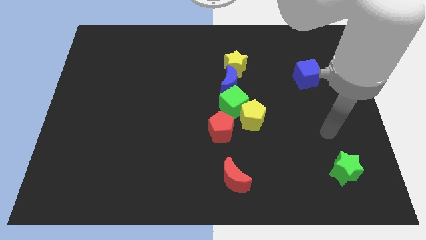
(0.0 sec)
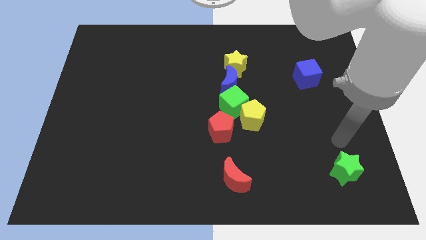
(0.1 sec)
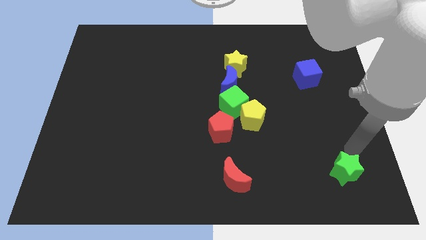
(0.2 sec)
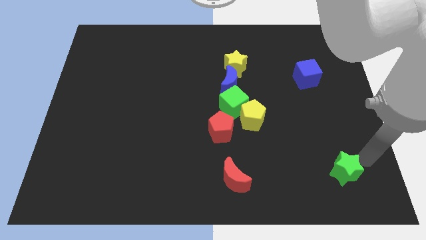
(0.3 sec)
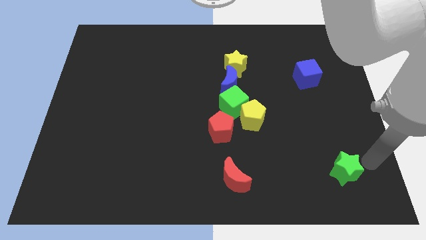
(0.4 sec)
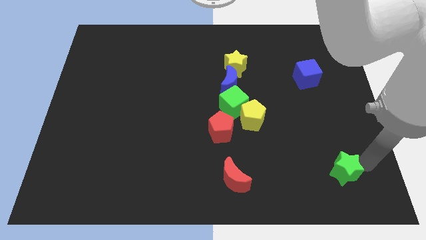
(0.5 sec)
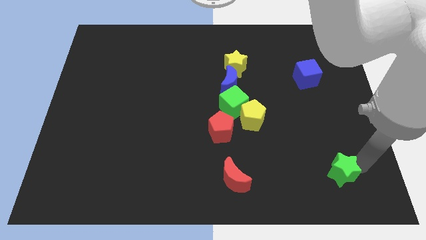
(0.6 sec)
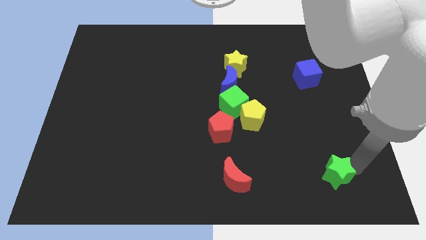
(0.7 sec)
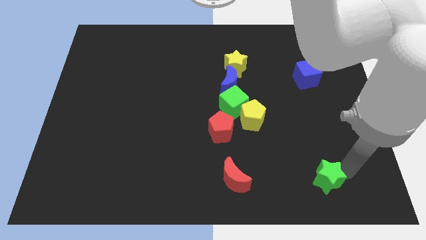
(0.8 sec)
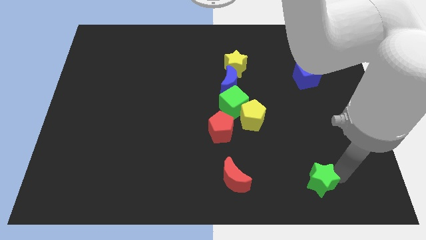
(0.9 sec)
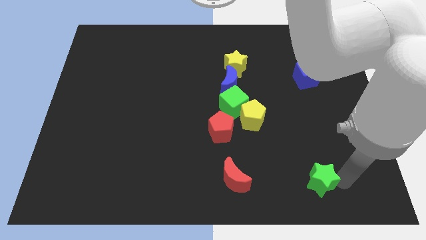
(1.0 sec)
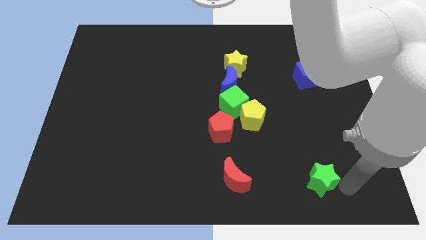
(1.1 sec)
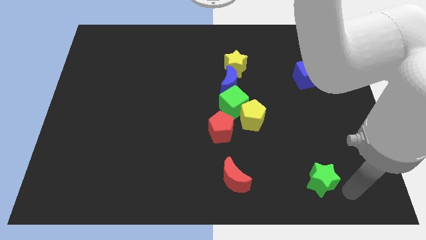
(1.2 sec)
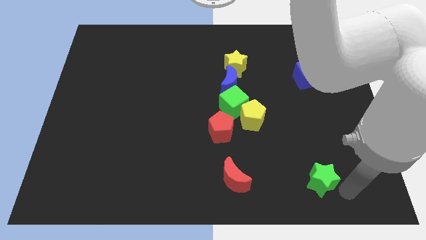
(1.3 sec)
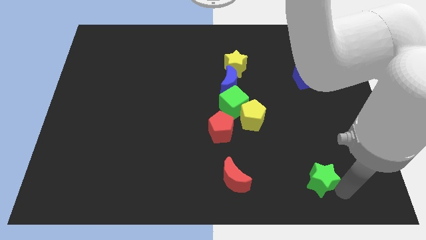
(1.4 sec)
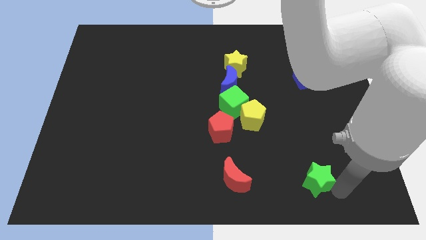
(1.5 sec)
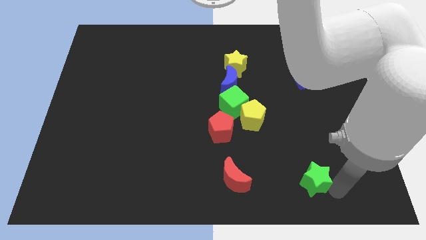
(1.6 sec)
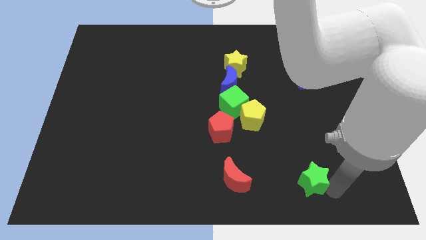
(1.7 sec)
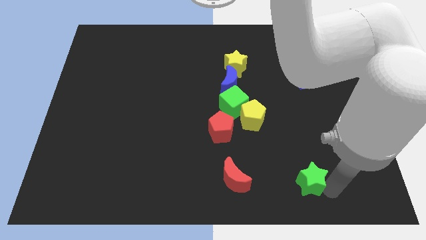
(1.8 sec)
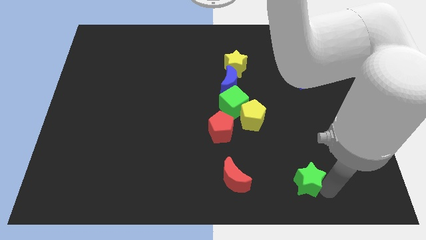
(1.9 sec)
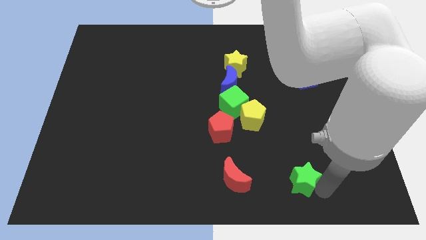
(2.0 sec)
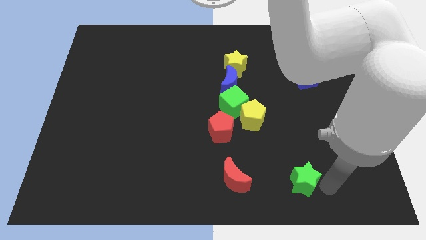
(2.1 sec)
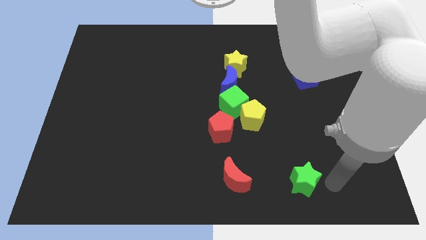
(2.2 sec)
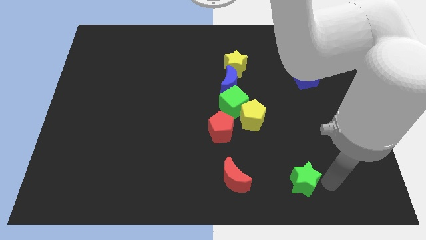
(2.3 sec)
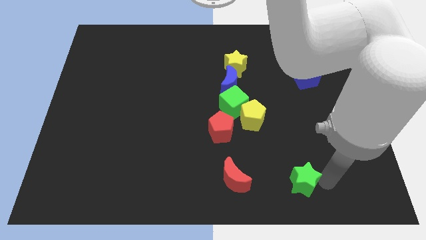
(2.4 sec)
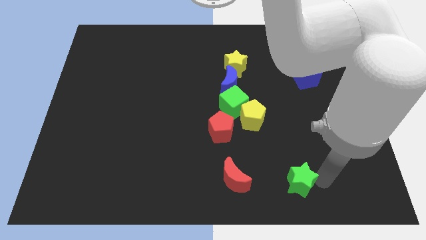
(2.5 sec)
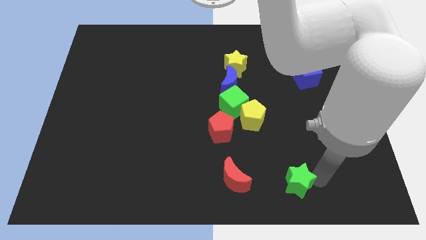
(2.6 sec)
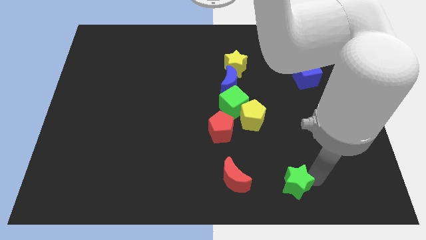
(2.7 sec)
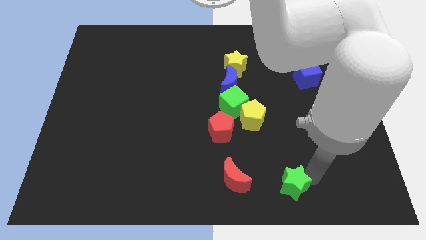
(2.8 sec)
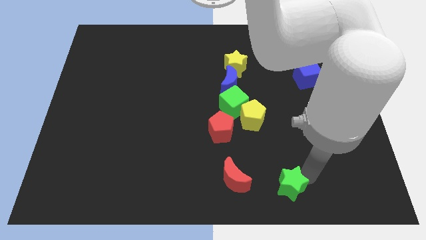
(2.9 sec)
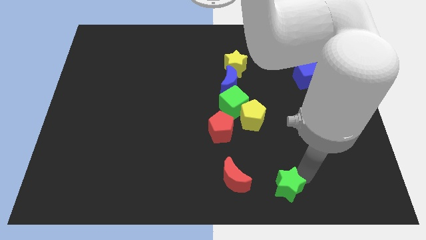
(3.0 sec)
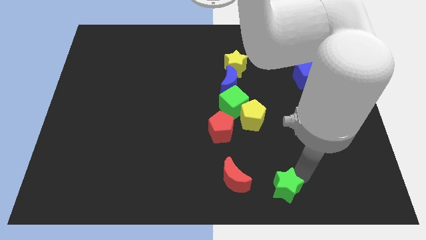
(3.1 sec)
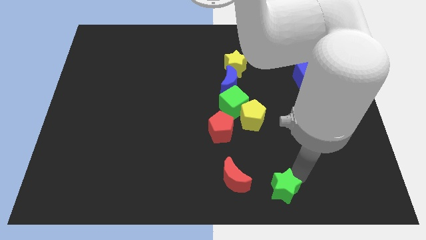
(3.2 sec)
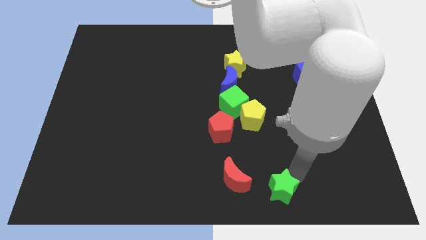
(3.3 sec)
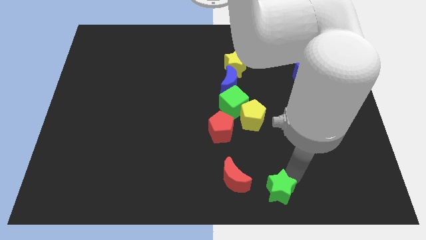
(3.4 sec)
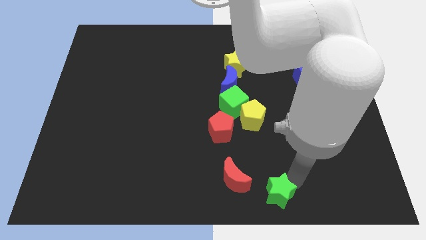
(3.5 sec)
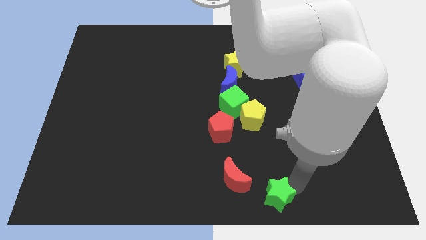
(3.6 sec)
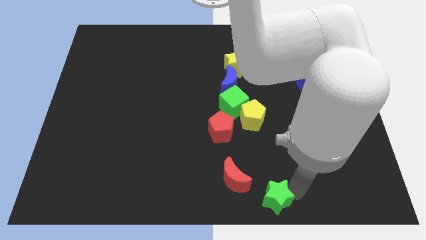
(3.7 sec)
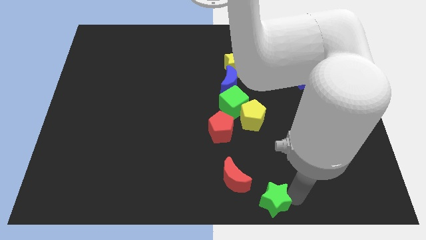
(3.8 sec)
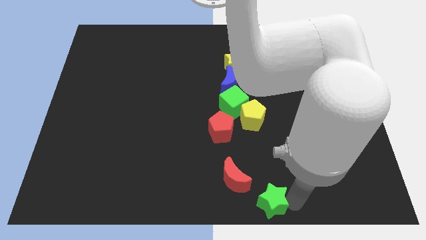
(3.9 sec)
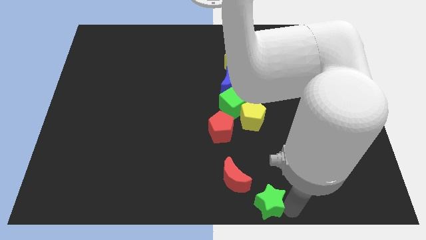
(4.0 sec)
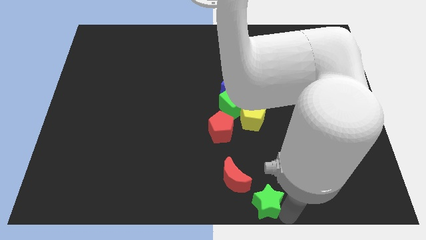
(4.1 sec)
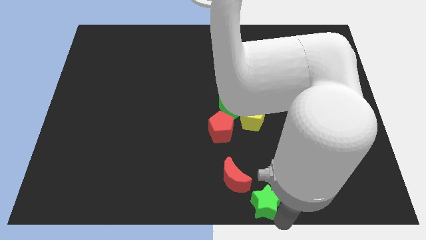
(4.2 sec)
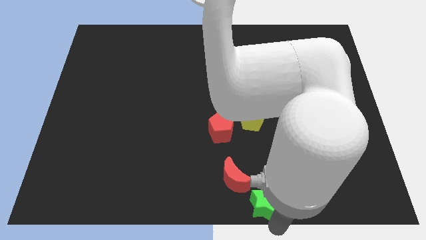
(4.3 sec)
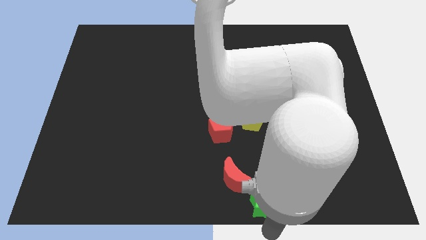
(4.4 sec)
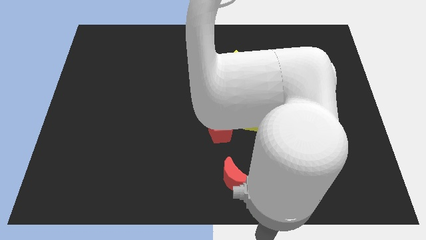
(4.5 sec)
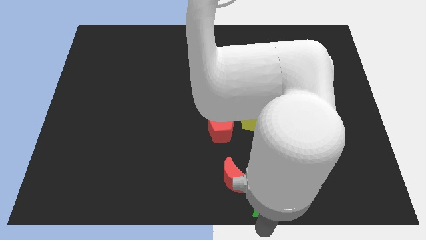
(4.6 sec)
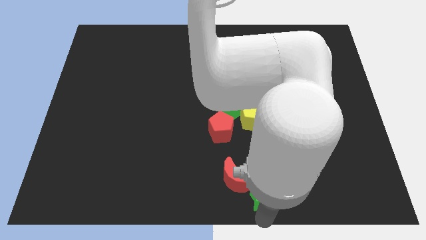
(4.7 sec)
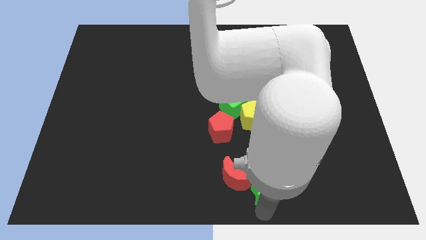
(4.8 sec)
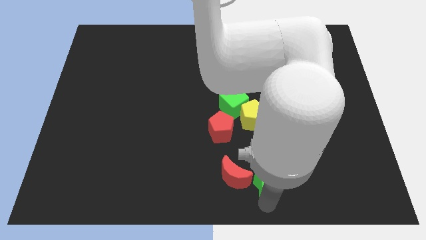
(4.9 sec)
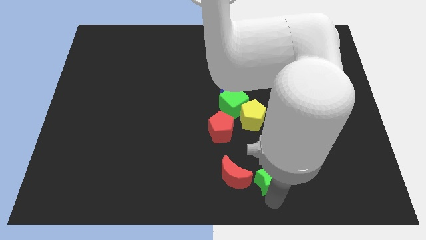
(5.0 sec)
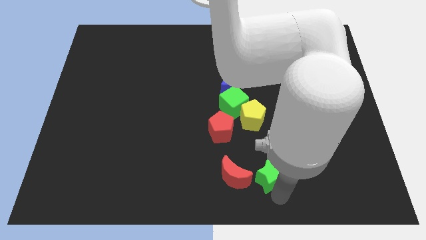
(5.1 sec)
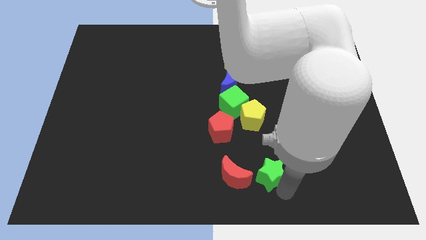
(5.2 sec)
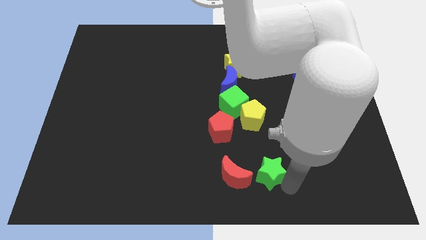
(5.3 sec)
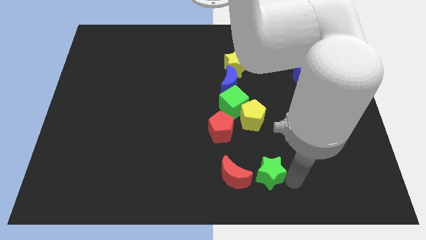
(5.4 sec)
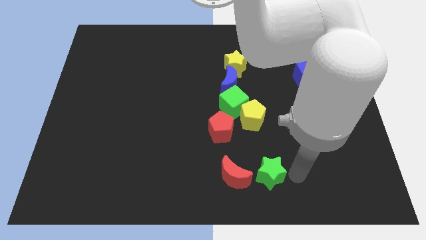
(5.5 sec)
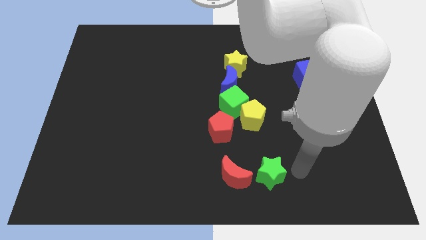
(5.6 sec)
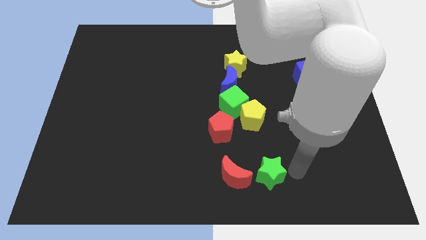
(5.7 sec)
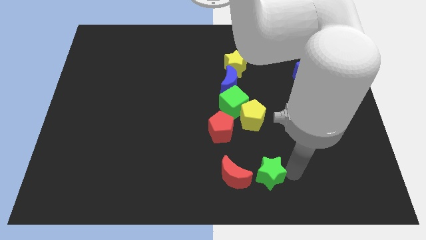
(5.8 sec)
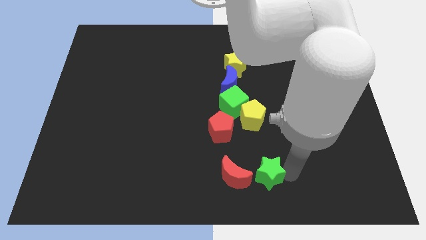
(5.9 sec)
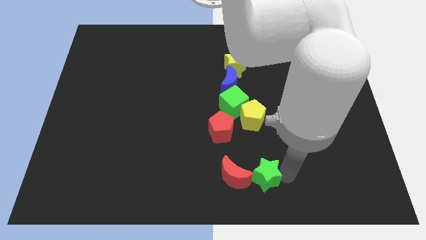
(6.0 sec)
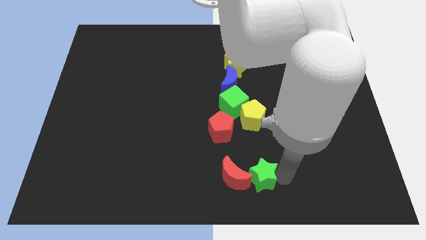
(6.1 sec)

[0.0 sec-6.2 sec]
move the green star next to the red moon
